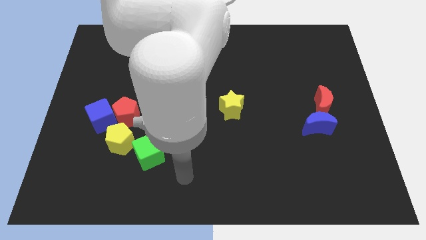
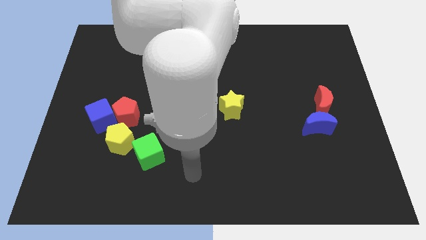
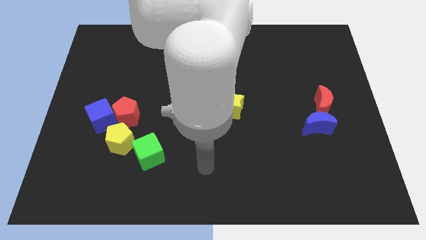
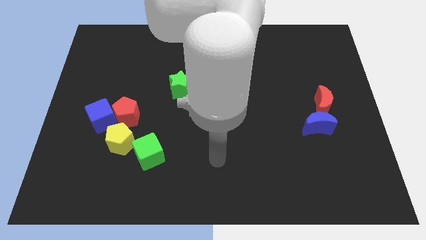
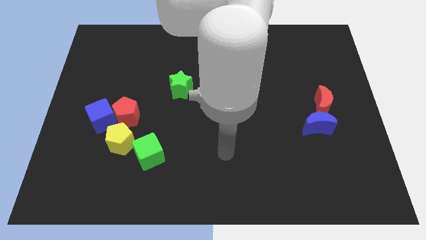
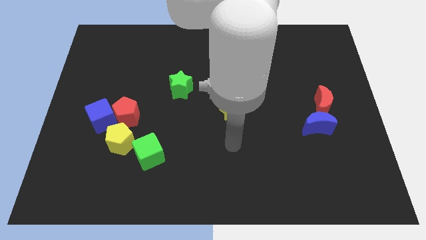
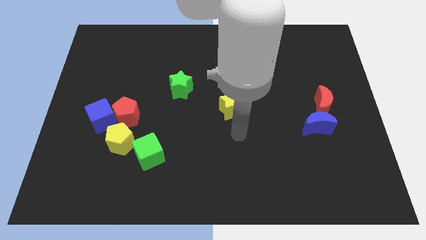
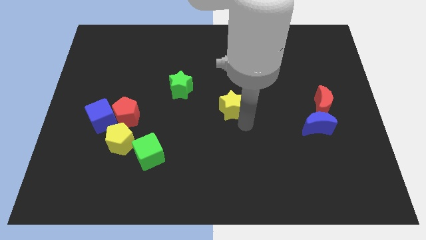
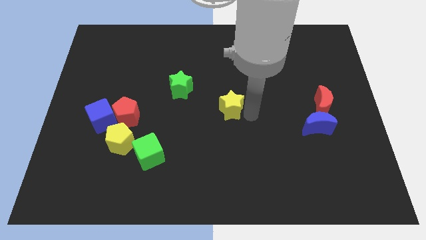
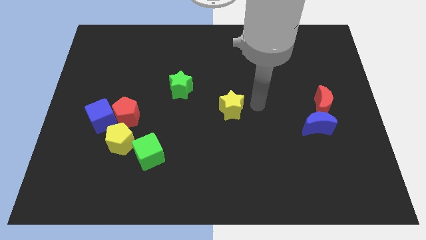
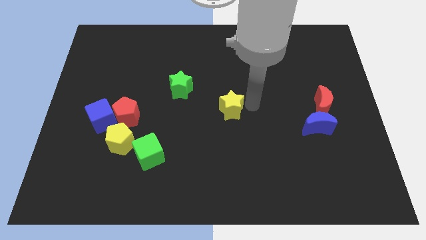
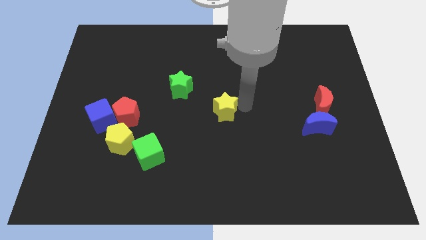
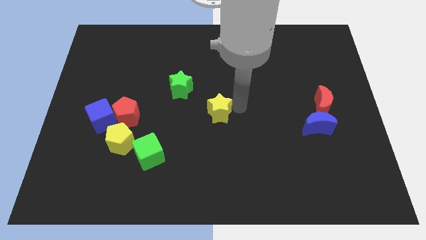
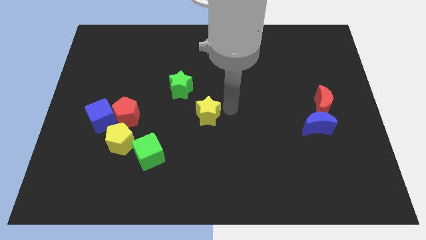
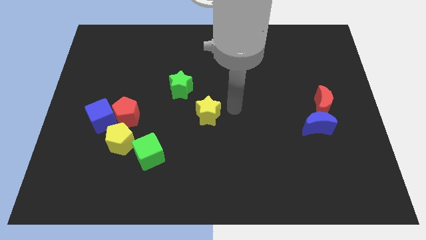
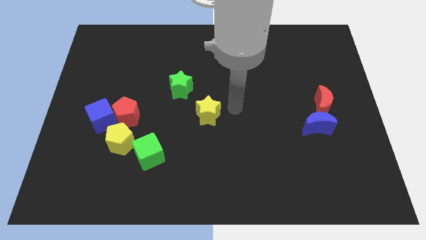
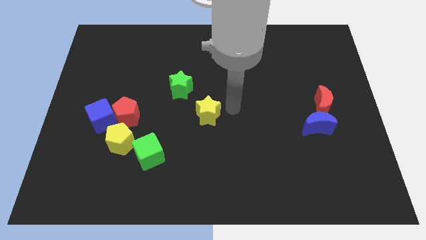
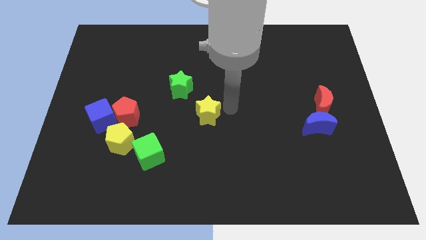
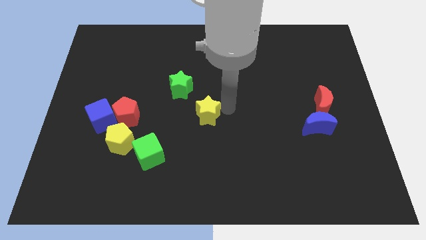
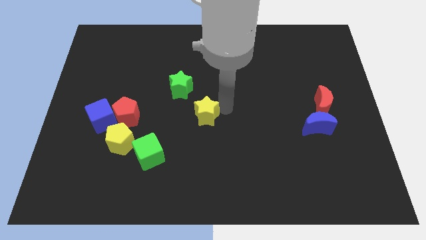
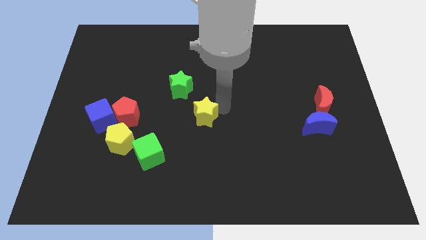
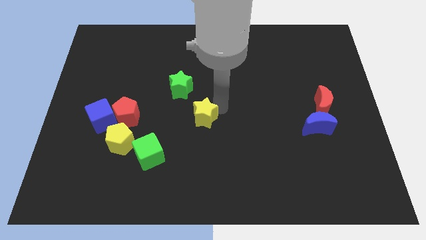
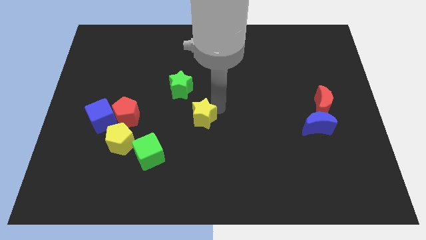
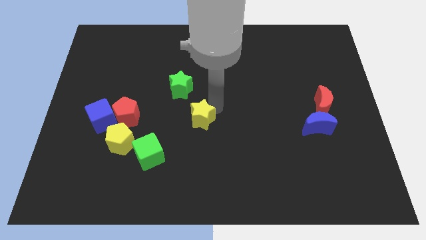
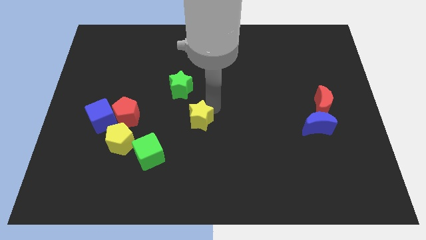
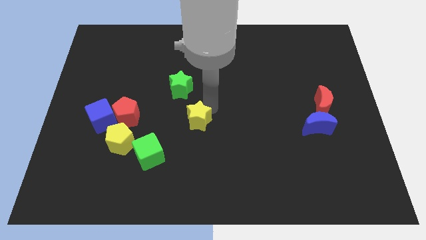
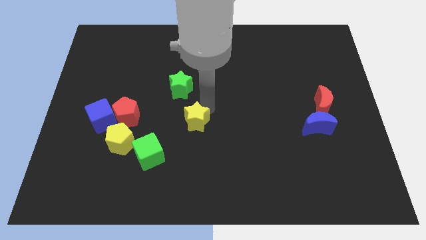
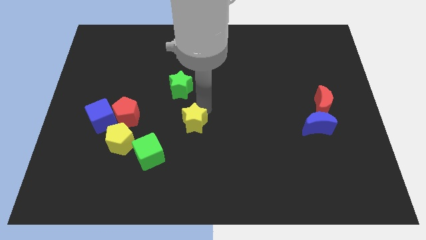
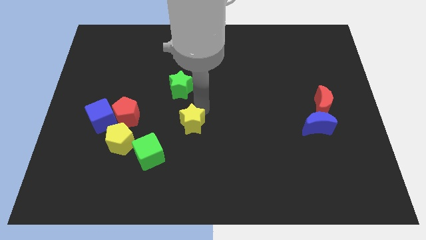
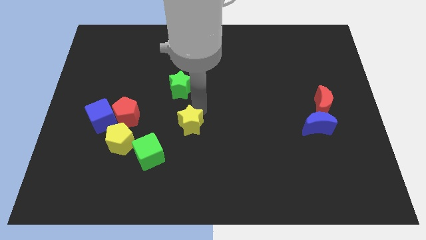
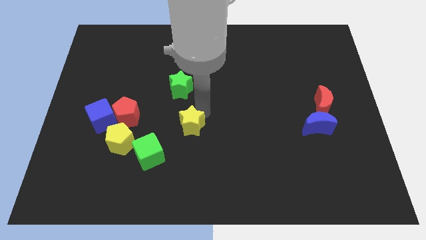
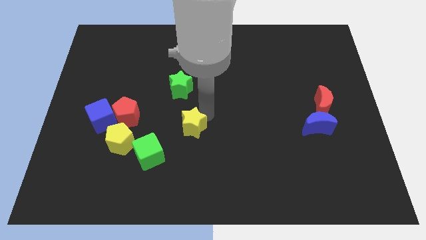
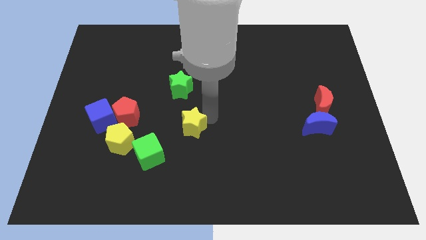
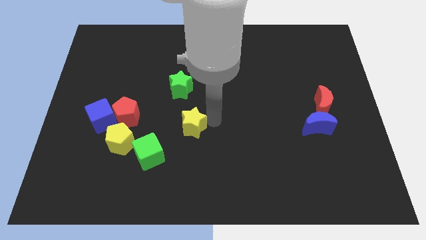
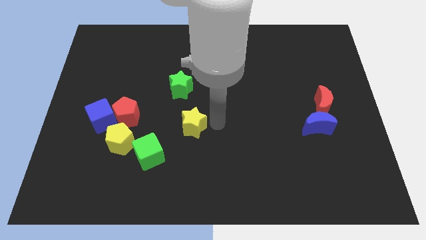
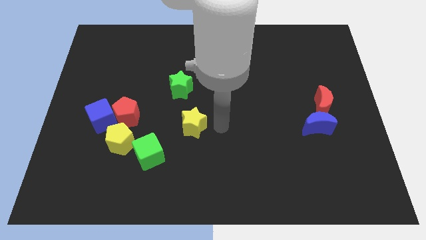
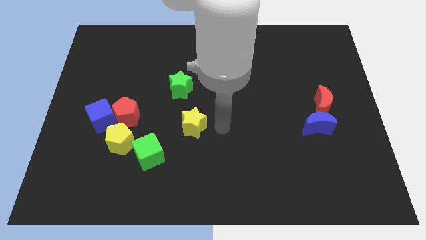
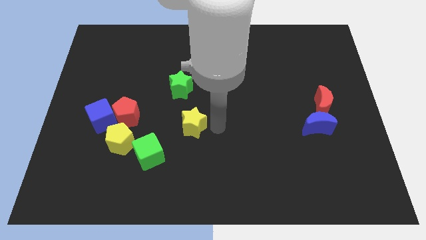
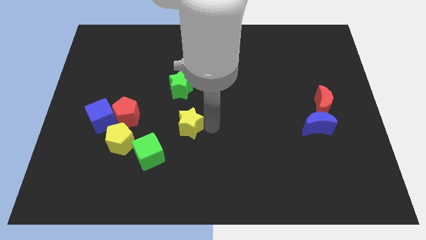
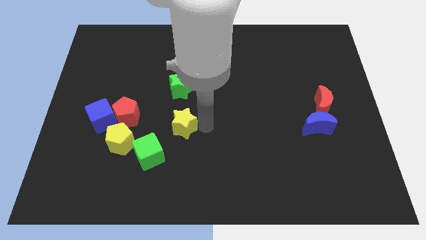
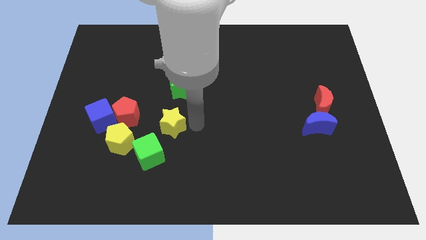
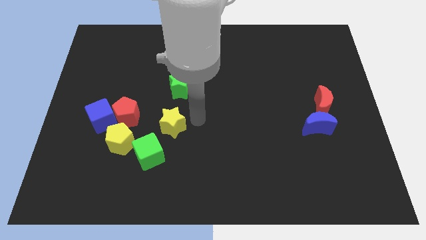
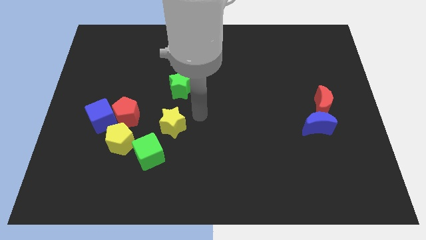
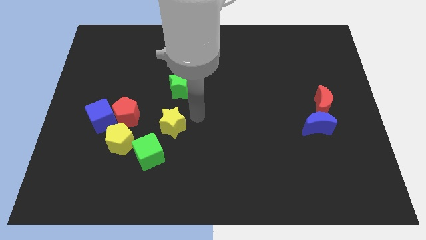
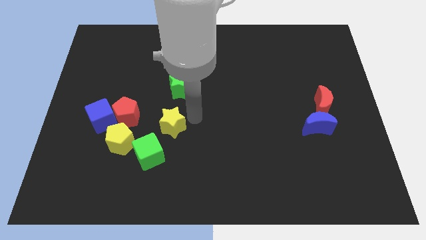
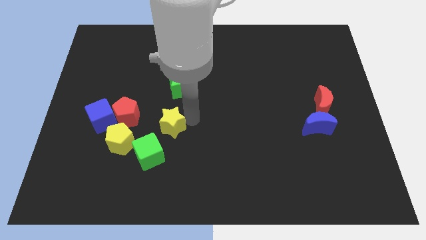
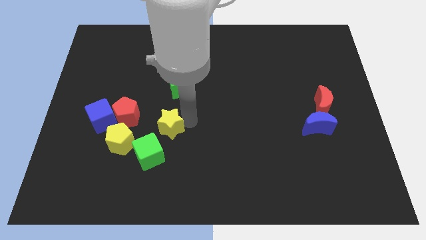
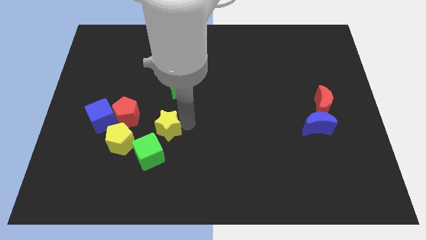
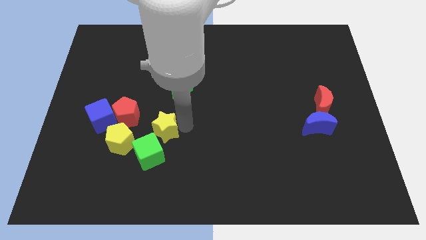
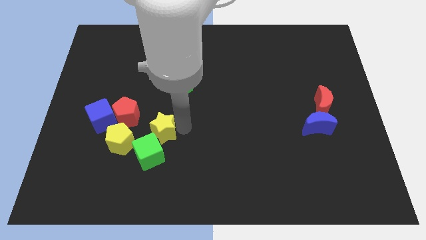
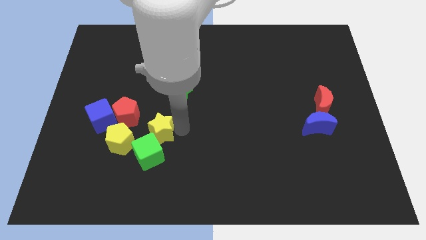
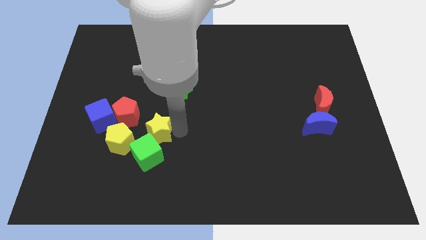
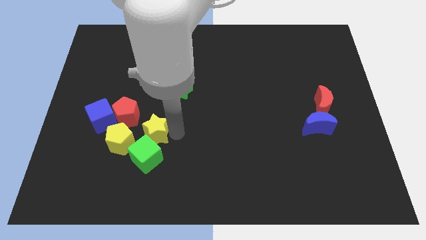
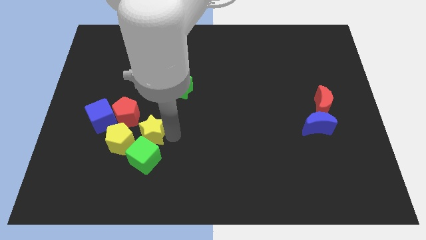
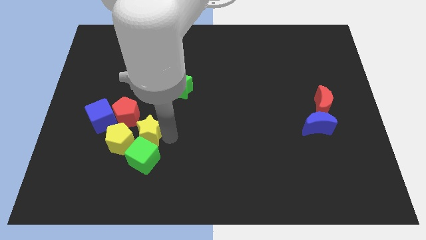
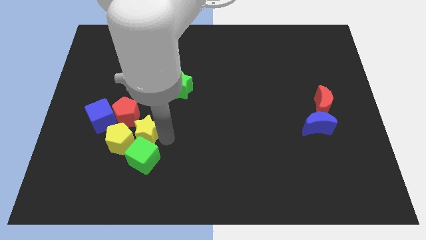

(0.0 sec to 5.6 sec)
slide the yellow star next to the yellow pentagon

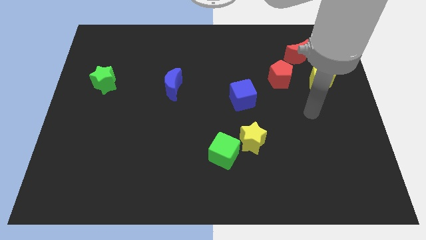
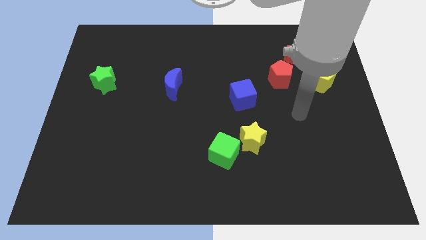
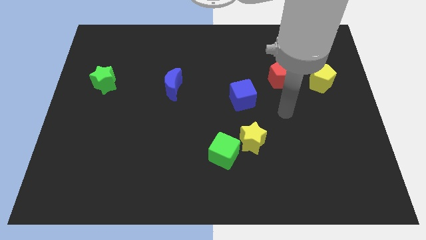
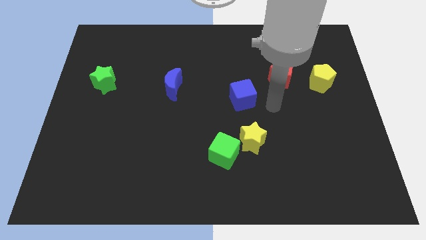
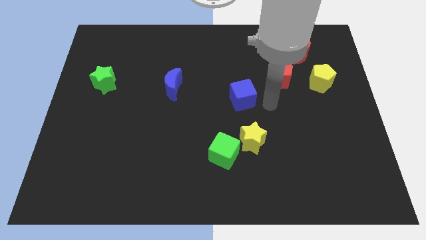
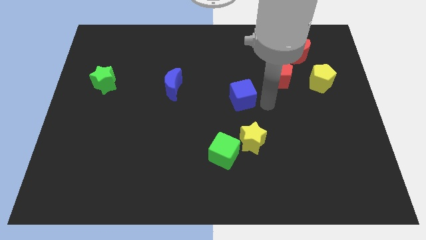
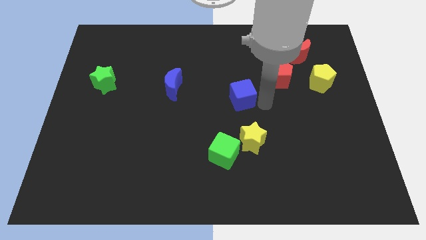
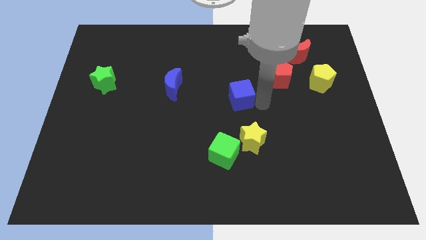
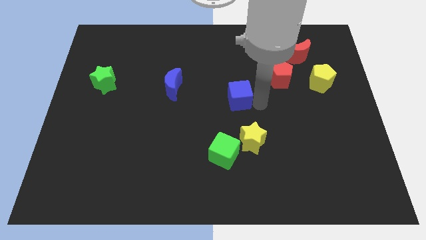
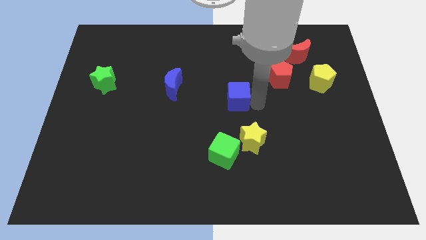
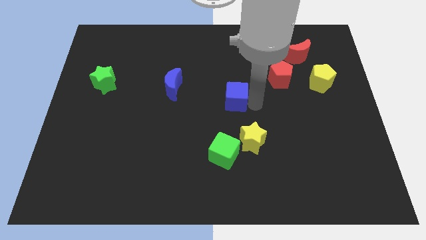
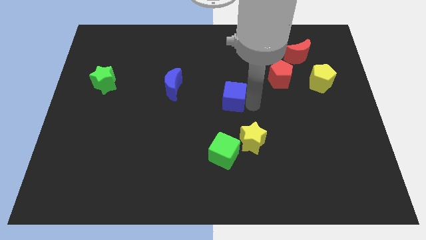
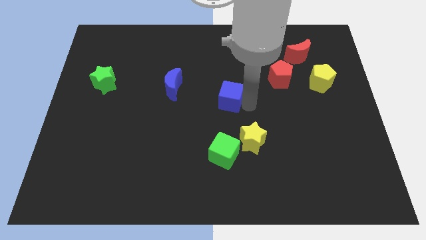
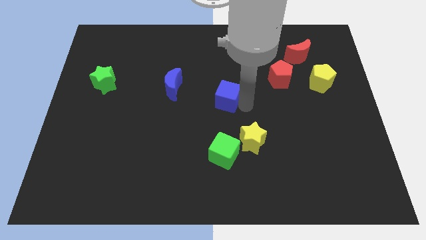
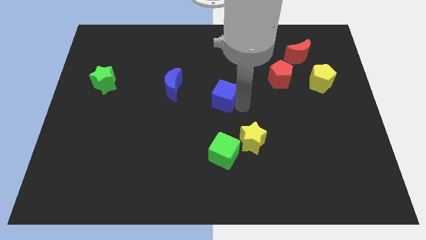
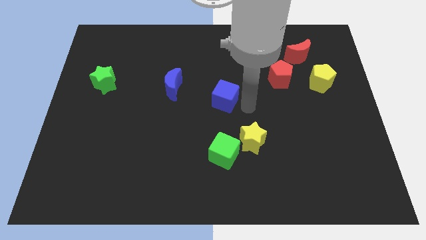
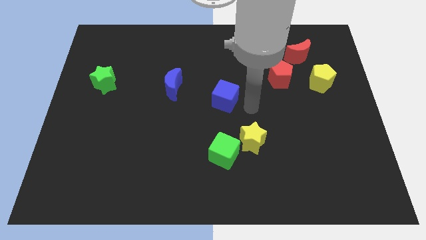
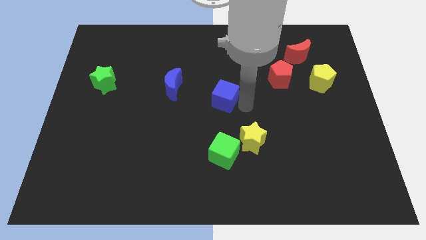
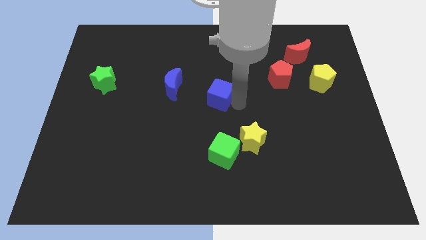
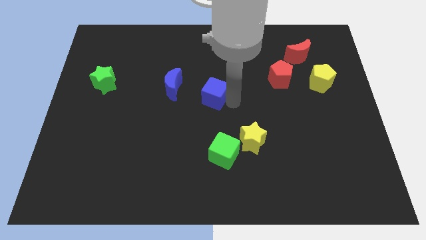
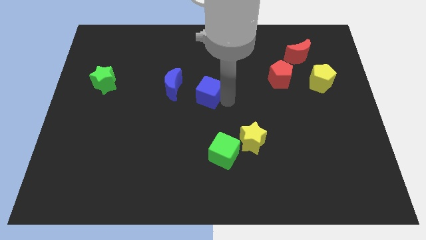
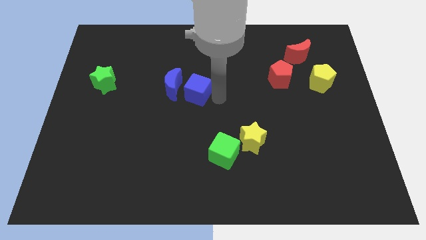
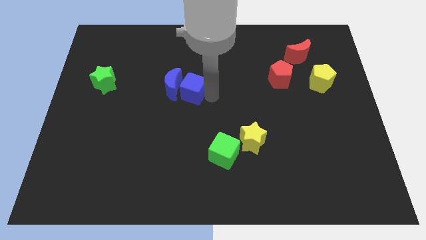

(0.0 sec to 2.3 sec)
push the blue cube close to the blue moon
